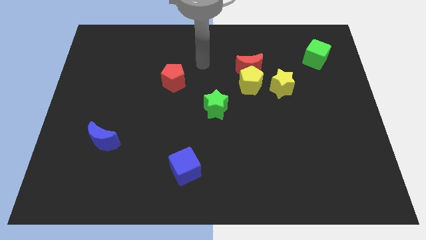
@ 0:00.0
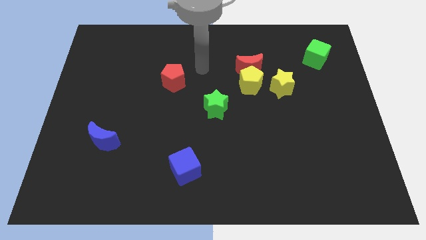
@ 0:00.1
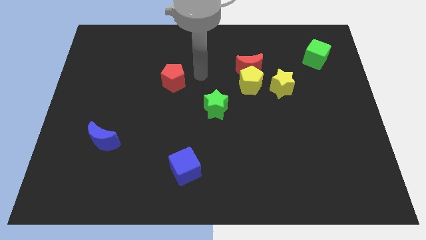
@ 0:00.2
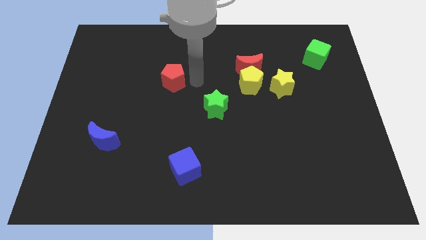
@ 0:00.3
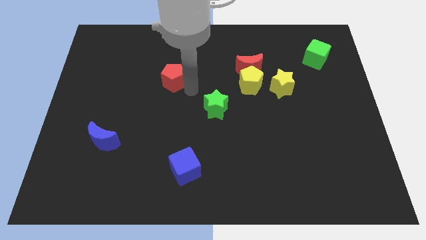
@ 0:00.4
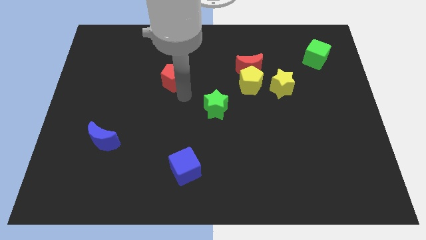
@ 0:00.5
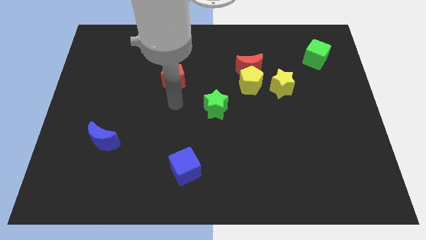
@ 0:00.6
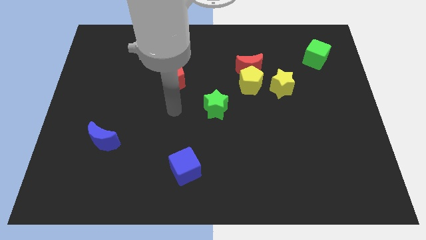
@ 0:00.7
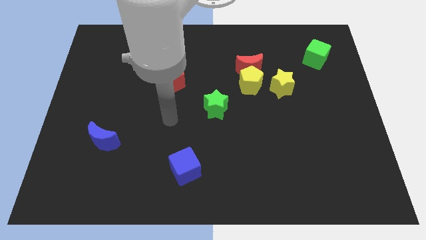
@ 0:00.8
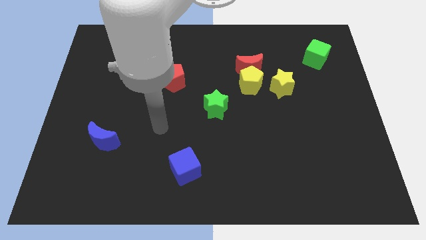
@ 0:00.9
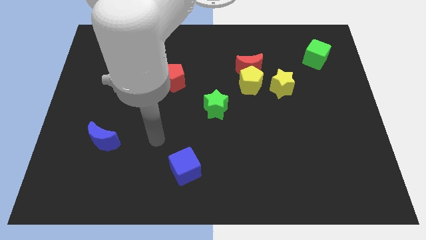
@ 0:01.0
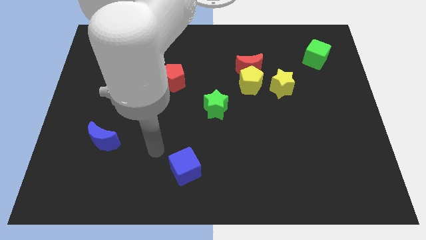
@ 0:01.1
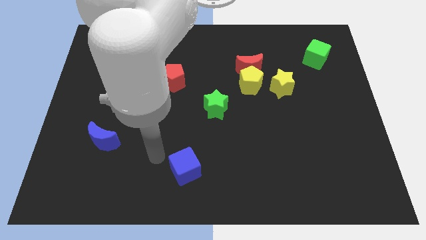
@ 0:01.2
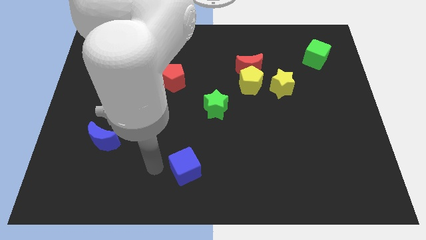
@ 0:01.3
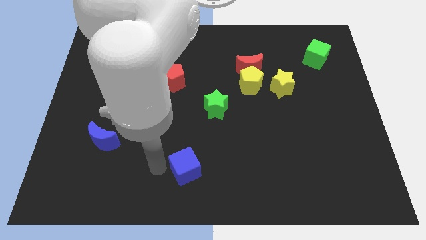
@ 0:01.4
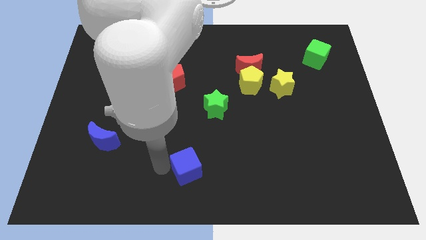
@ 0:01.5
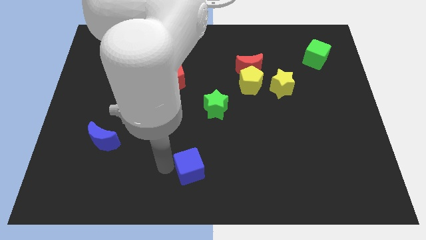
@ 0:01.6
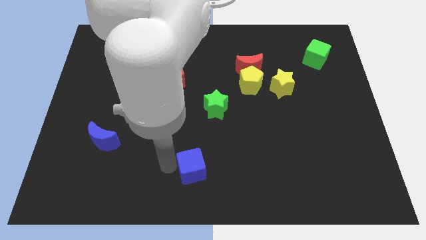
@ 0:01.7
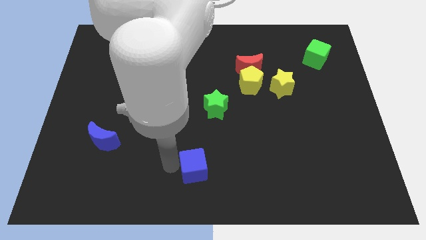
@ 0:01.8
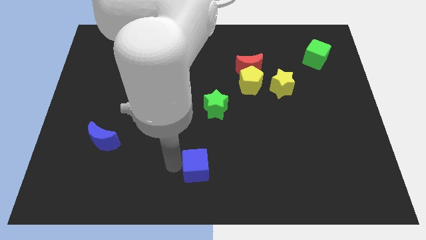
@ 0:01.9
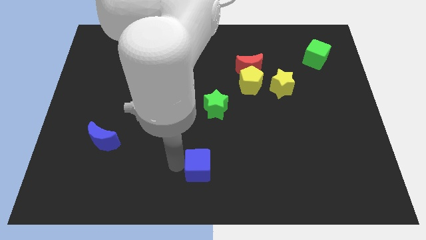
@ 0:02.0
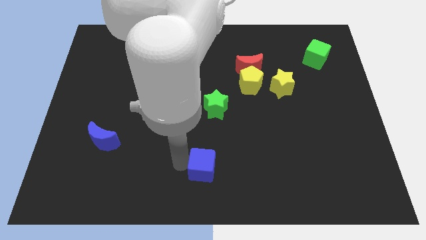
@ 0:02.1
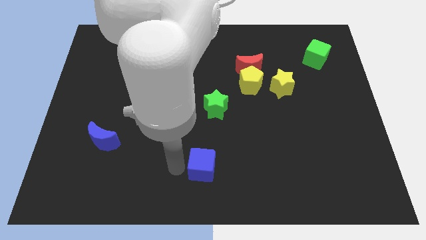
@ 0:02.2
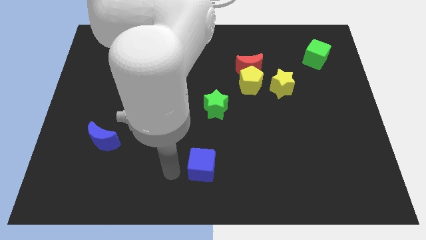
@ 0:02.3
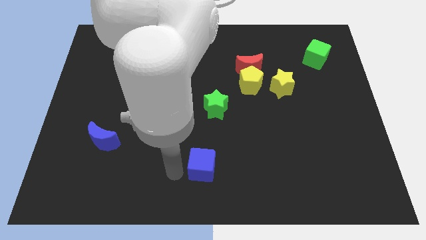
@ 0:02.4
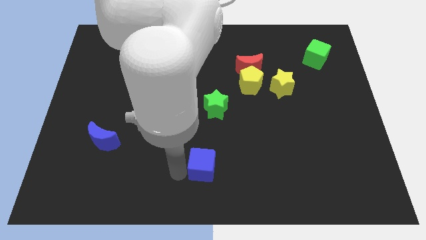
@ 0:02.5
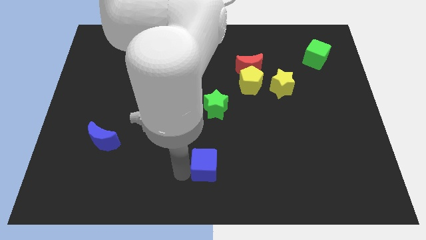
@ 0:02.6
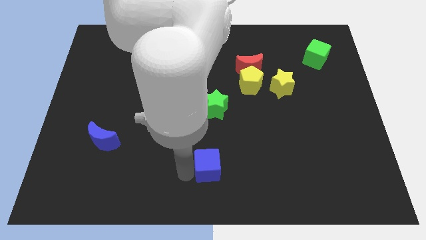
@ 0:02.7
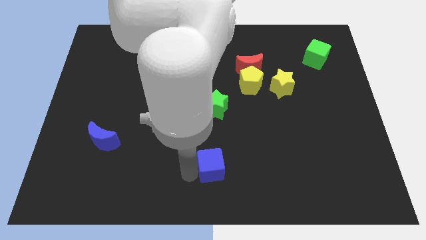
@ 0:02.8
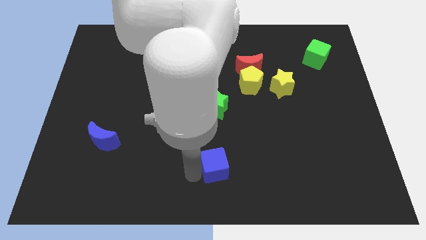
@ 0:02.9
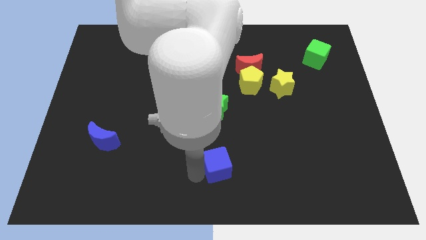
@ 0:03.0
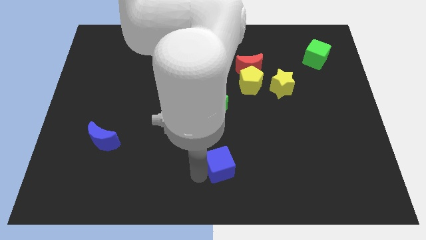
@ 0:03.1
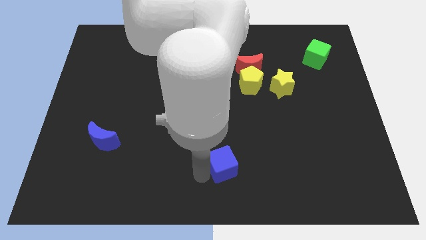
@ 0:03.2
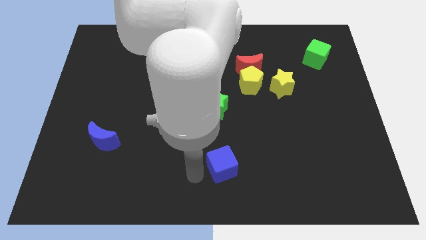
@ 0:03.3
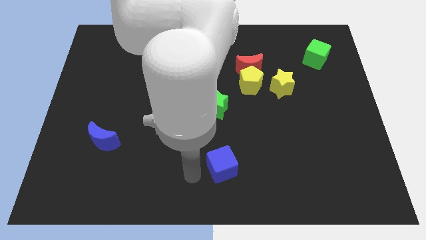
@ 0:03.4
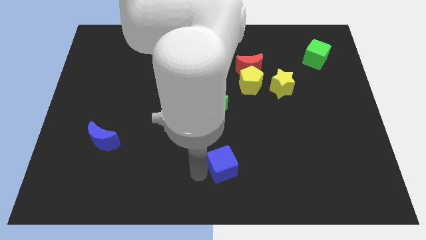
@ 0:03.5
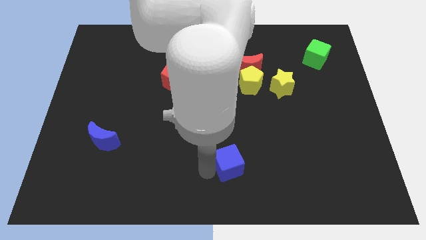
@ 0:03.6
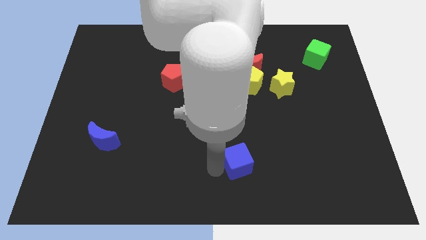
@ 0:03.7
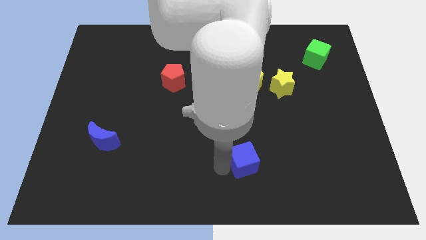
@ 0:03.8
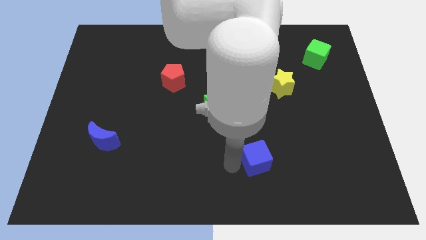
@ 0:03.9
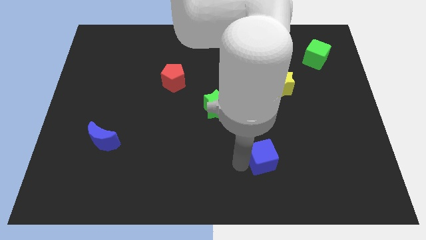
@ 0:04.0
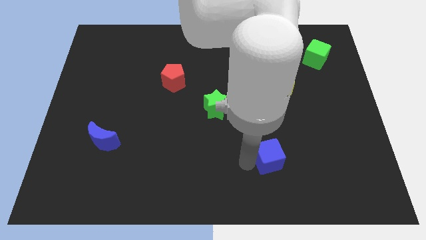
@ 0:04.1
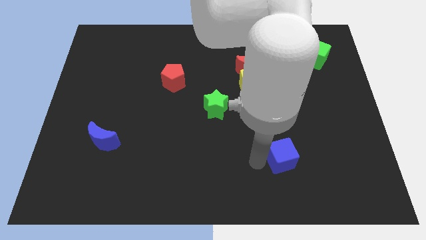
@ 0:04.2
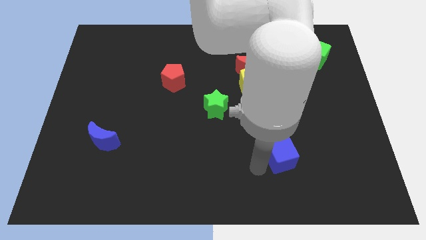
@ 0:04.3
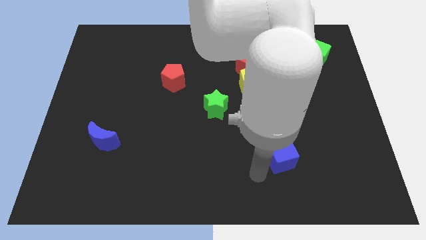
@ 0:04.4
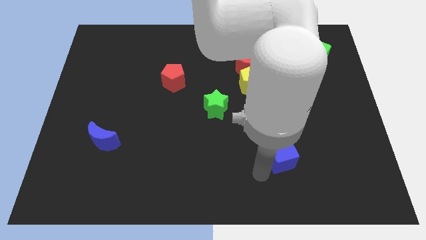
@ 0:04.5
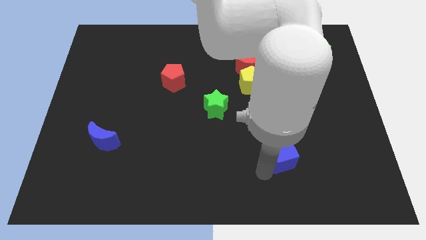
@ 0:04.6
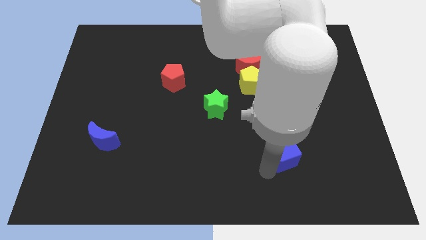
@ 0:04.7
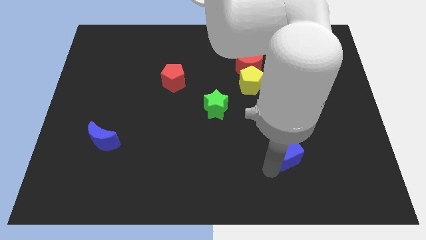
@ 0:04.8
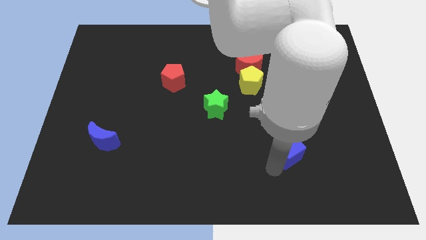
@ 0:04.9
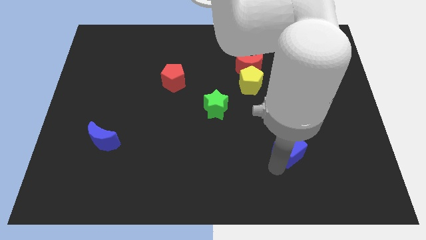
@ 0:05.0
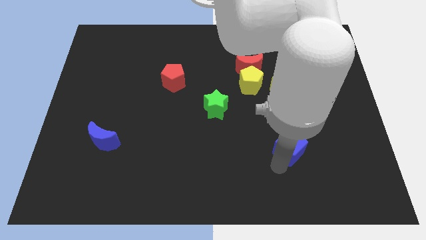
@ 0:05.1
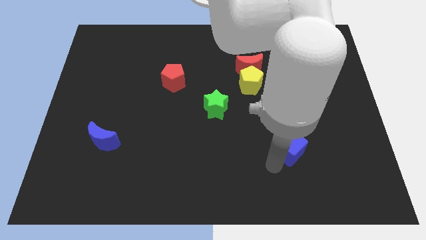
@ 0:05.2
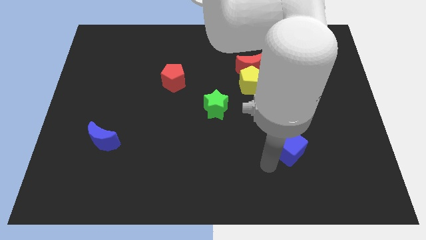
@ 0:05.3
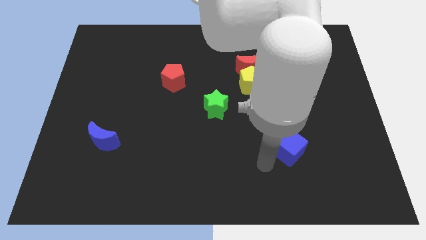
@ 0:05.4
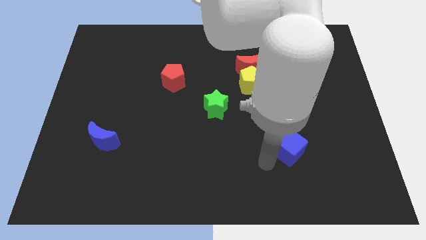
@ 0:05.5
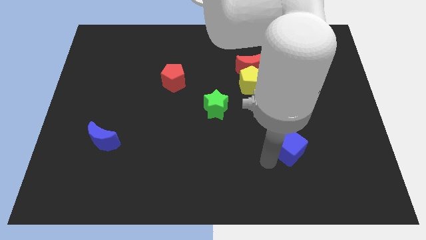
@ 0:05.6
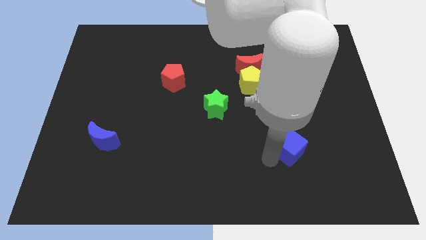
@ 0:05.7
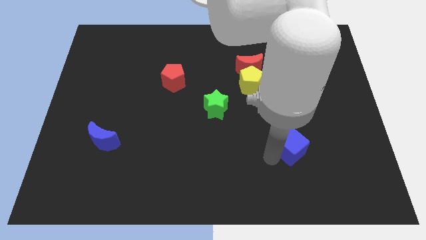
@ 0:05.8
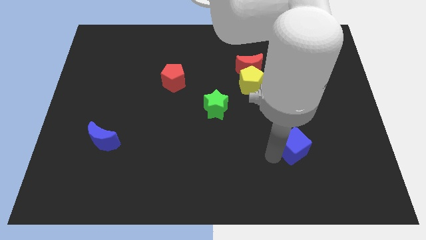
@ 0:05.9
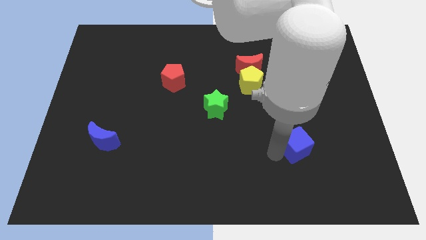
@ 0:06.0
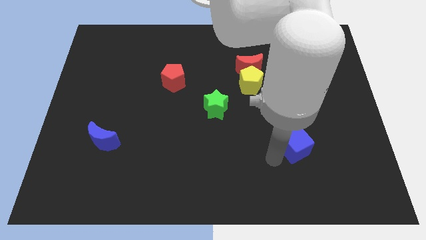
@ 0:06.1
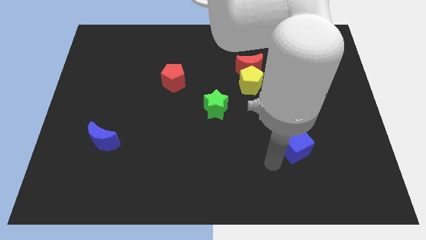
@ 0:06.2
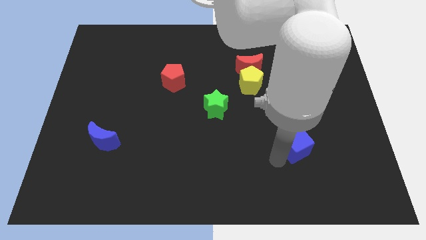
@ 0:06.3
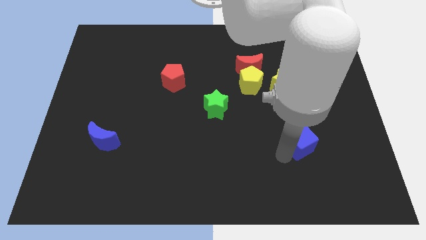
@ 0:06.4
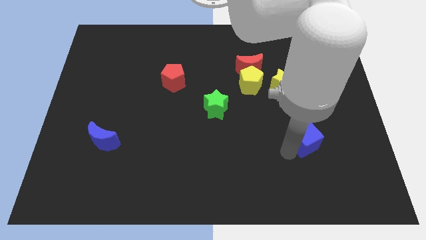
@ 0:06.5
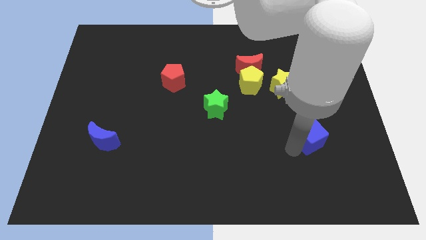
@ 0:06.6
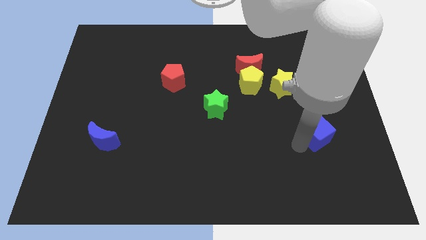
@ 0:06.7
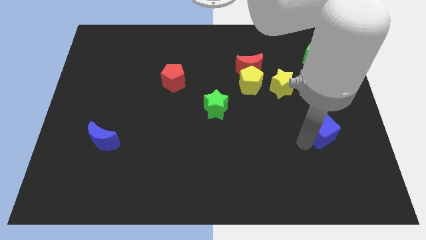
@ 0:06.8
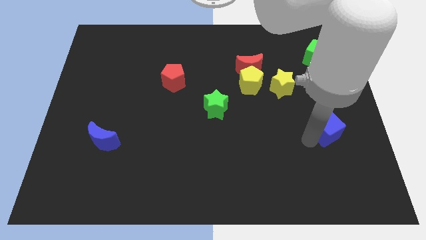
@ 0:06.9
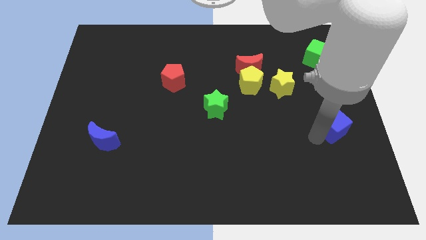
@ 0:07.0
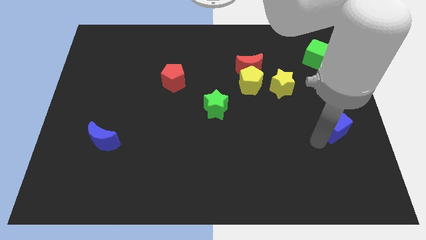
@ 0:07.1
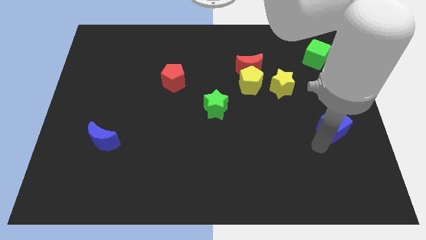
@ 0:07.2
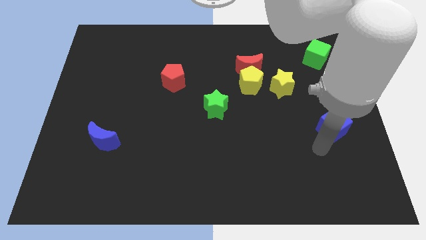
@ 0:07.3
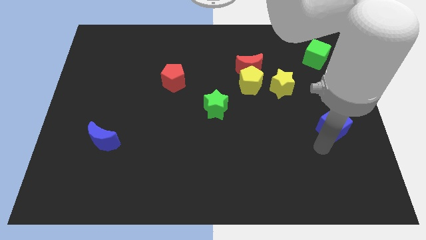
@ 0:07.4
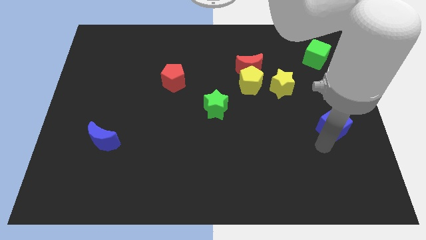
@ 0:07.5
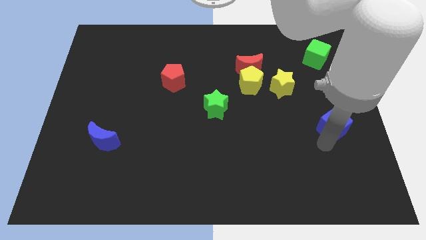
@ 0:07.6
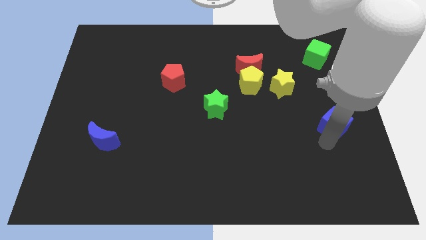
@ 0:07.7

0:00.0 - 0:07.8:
move the blue cube to the right side of the board
